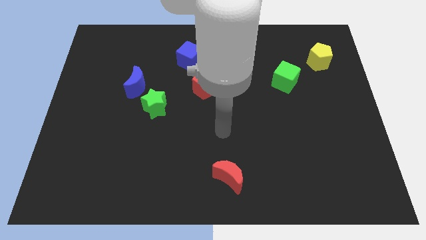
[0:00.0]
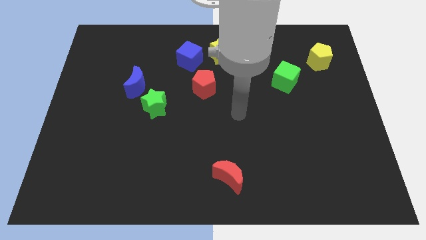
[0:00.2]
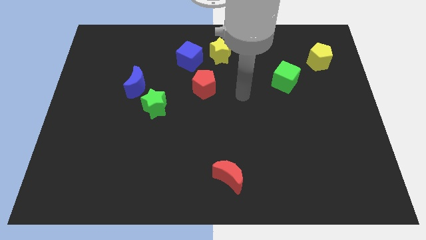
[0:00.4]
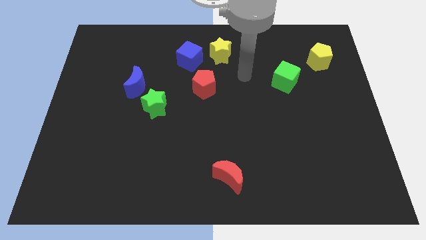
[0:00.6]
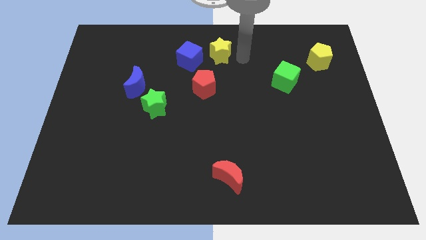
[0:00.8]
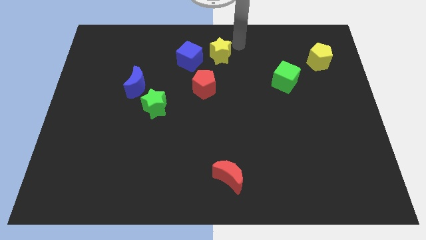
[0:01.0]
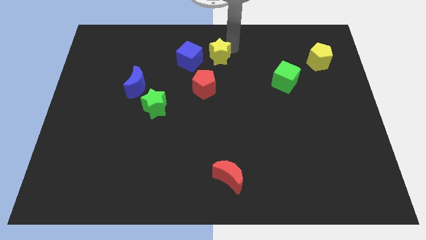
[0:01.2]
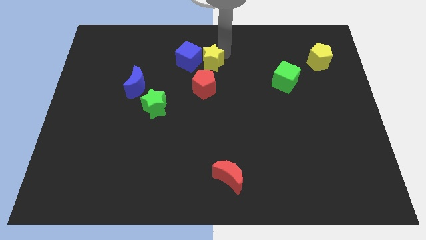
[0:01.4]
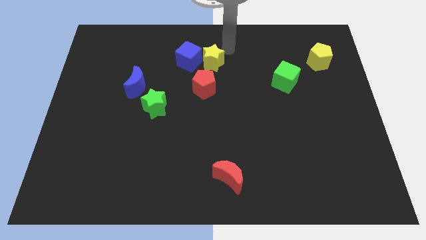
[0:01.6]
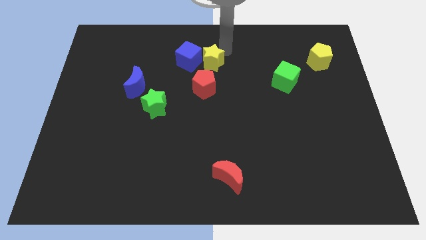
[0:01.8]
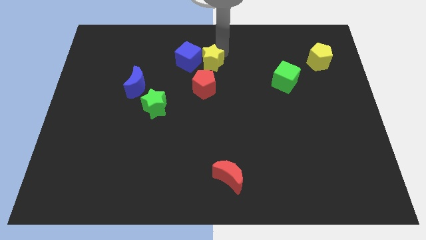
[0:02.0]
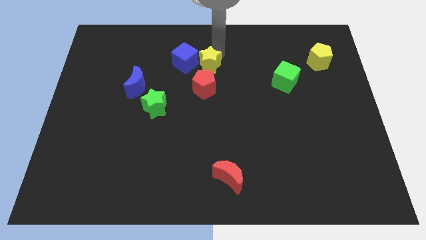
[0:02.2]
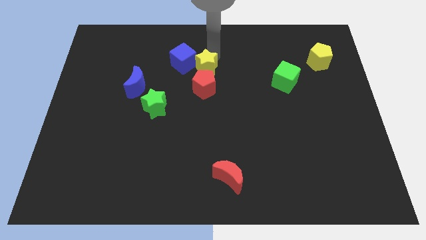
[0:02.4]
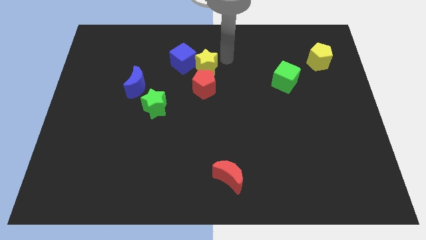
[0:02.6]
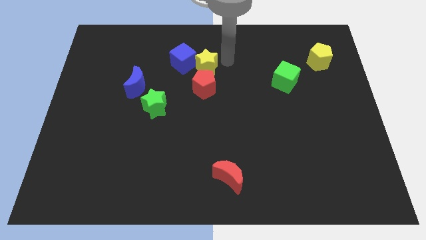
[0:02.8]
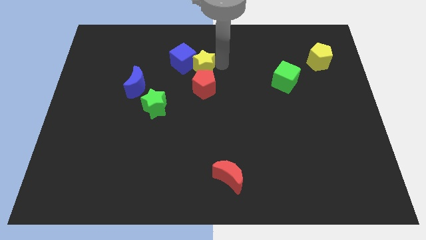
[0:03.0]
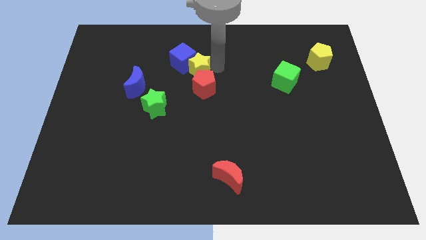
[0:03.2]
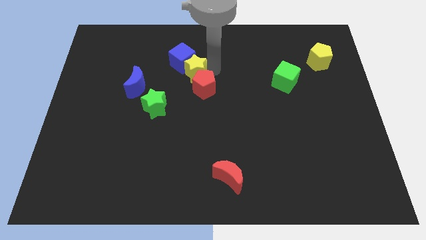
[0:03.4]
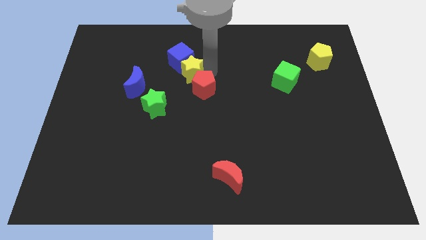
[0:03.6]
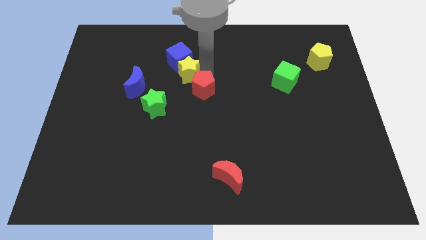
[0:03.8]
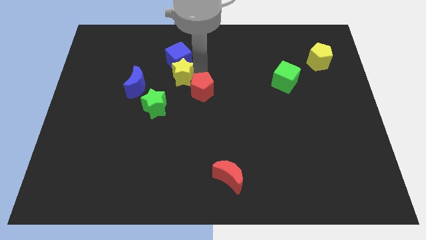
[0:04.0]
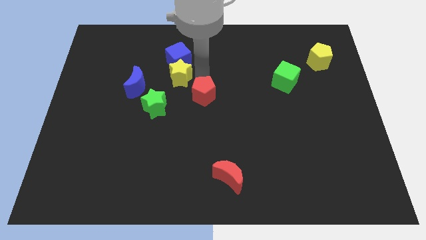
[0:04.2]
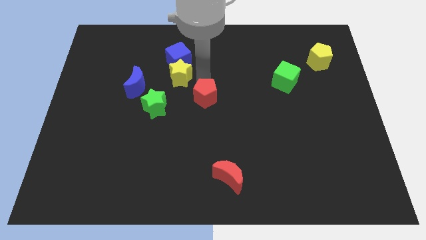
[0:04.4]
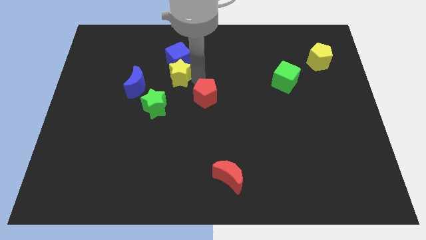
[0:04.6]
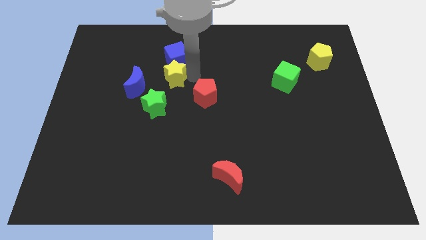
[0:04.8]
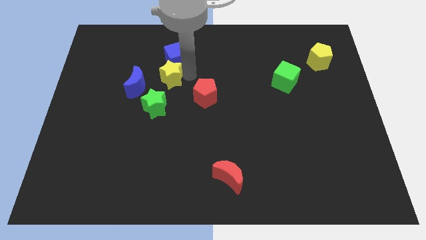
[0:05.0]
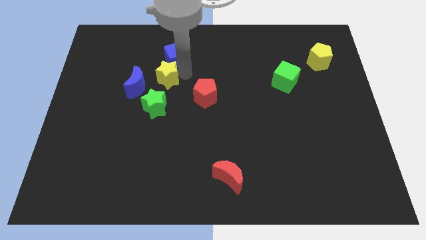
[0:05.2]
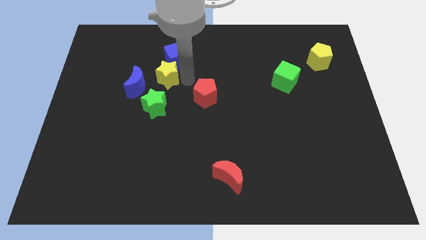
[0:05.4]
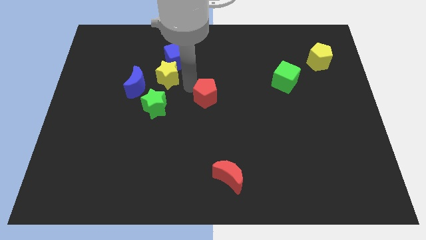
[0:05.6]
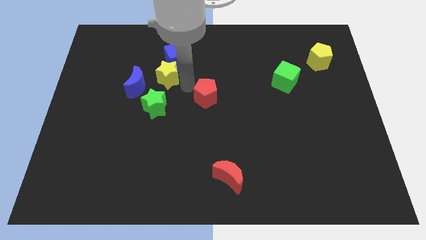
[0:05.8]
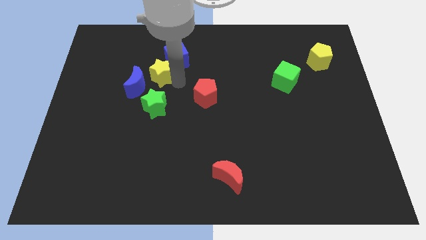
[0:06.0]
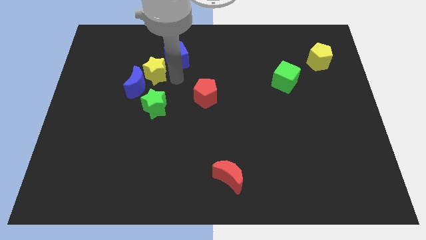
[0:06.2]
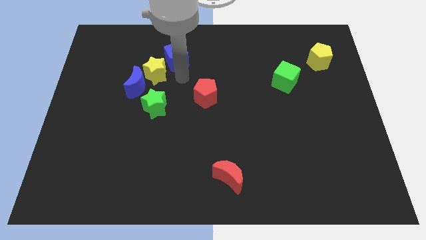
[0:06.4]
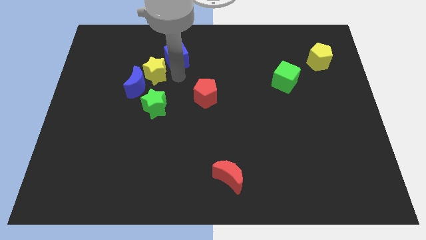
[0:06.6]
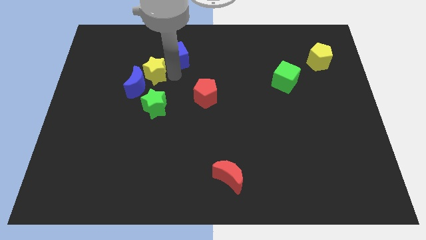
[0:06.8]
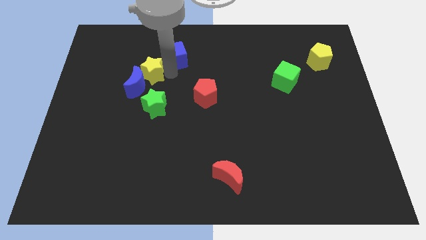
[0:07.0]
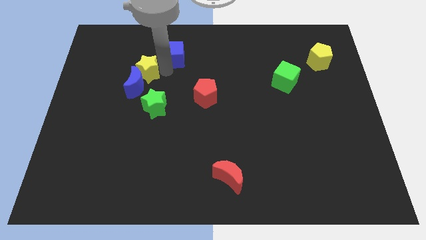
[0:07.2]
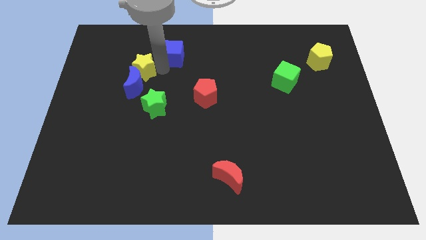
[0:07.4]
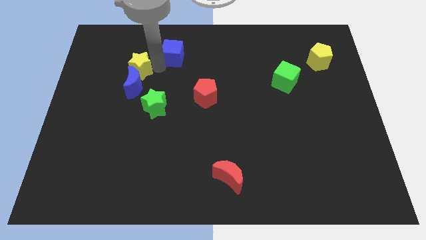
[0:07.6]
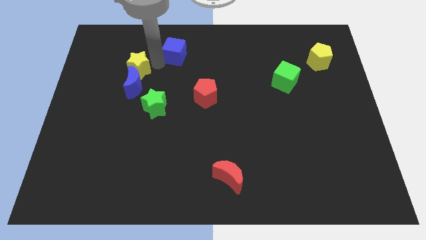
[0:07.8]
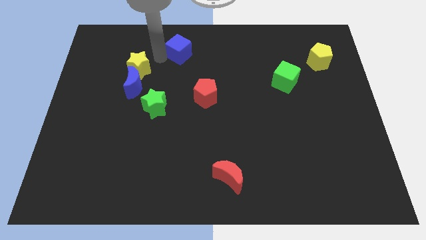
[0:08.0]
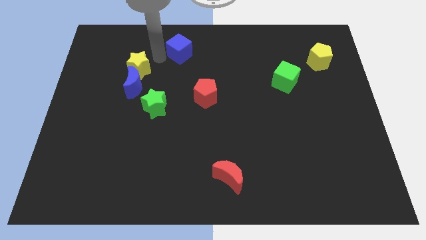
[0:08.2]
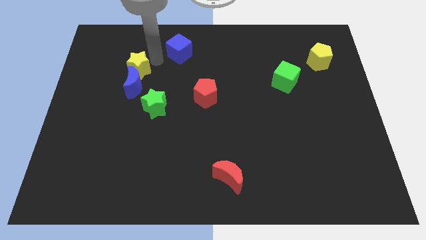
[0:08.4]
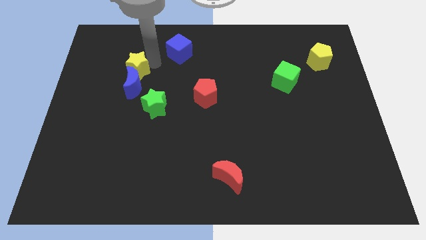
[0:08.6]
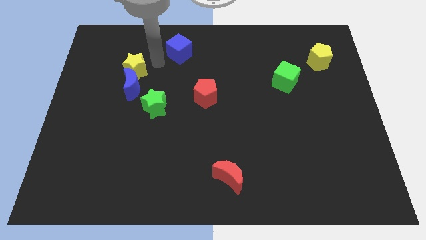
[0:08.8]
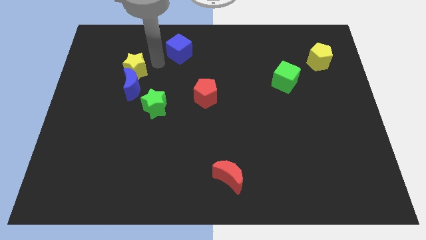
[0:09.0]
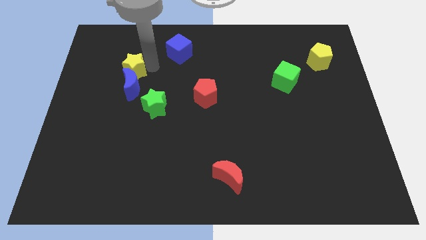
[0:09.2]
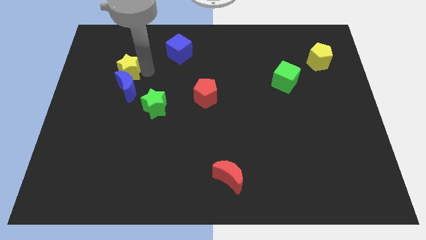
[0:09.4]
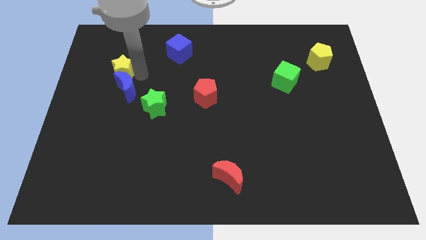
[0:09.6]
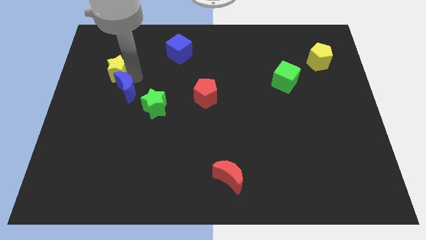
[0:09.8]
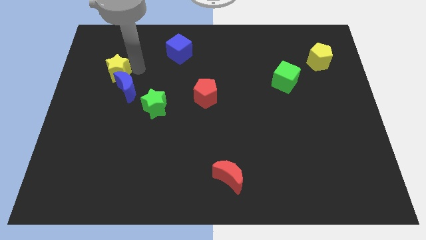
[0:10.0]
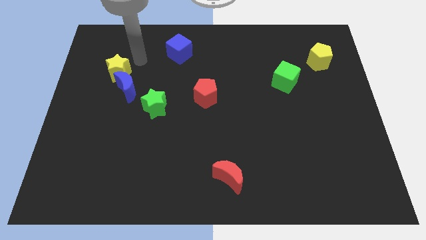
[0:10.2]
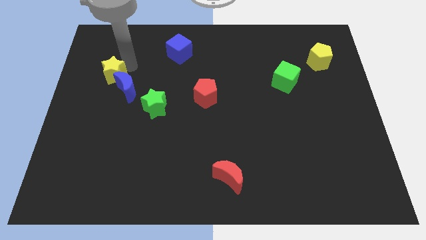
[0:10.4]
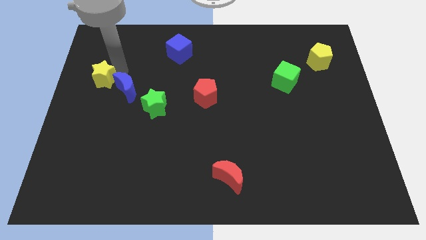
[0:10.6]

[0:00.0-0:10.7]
put the yellow star to the left side

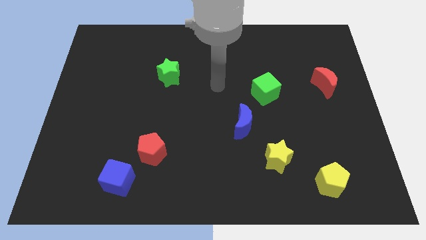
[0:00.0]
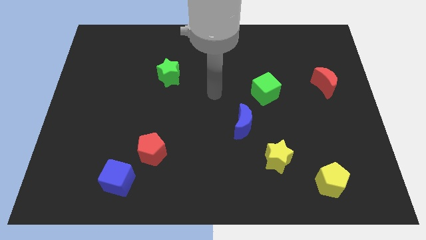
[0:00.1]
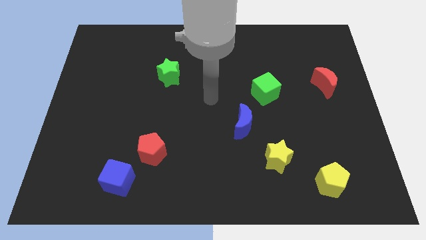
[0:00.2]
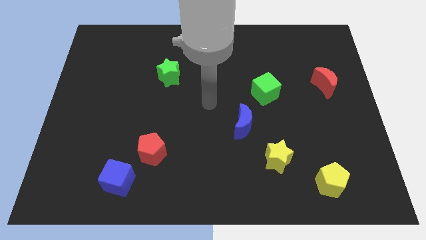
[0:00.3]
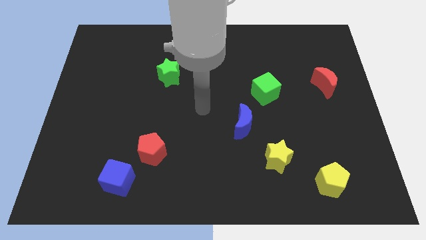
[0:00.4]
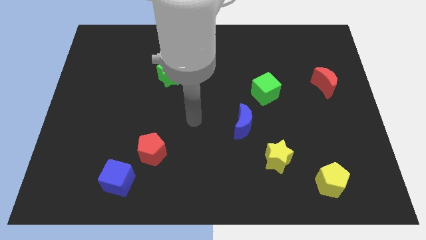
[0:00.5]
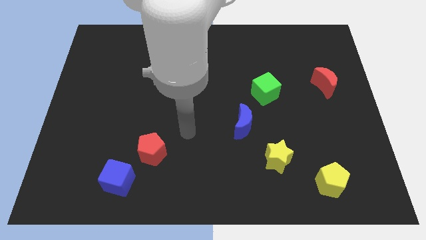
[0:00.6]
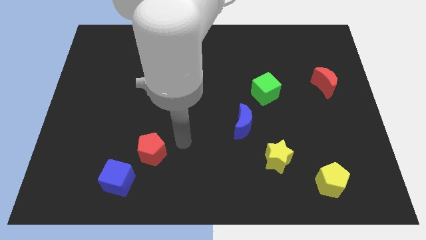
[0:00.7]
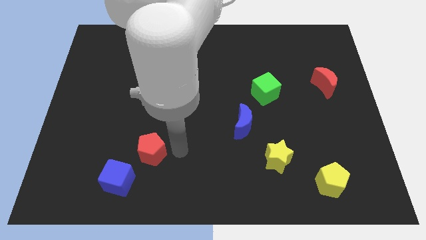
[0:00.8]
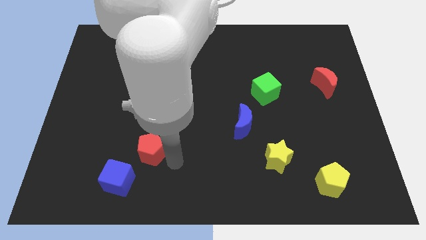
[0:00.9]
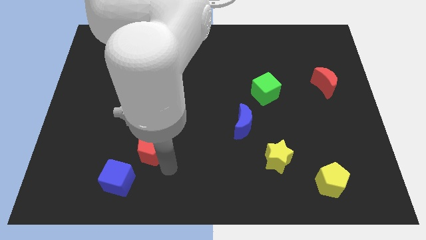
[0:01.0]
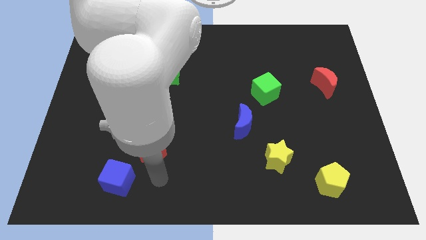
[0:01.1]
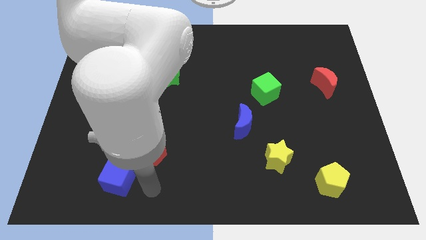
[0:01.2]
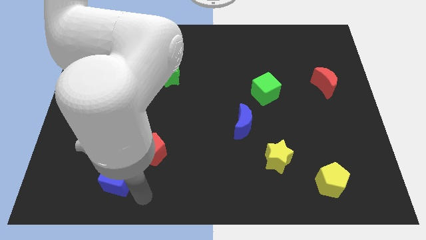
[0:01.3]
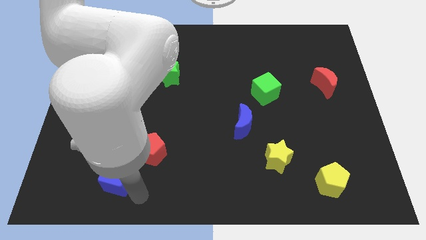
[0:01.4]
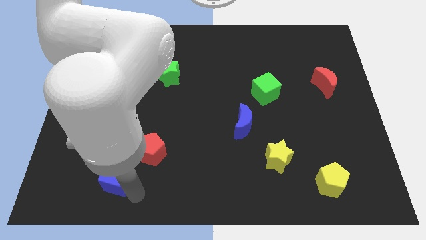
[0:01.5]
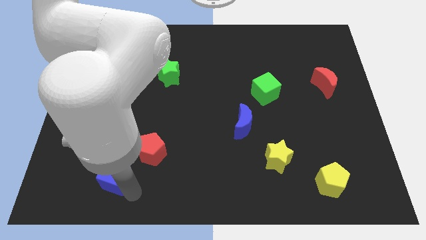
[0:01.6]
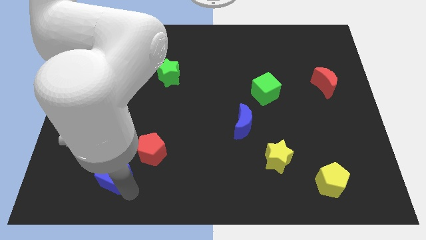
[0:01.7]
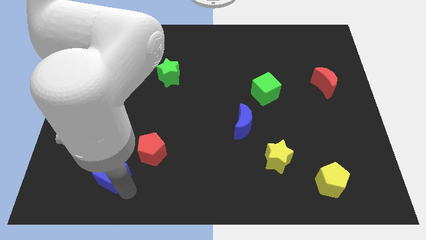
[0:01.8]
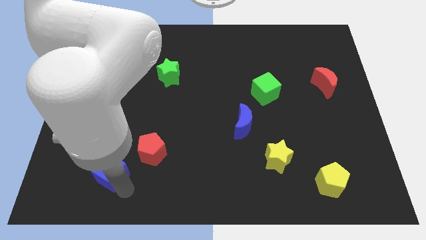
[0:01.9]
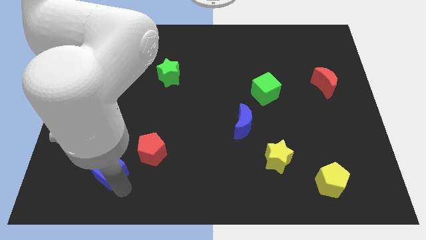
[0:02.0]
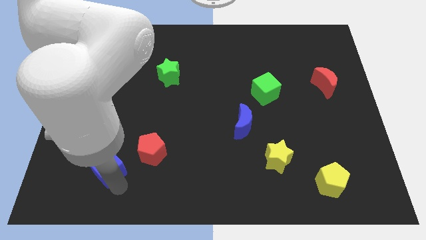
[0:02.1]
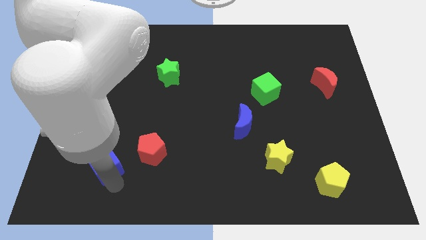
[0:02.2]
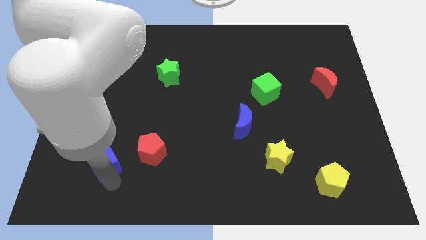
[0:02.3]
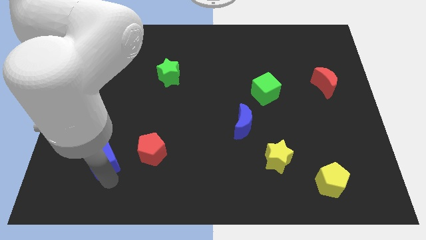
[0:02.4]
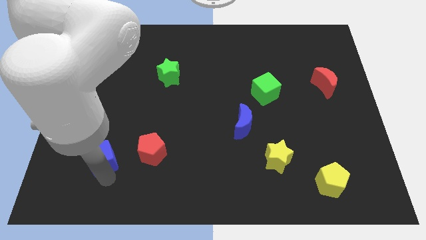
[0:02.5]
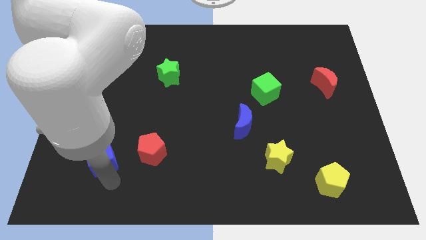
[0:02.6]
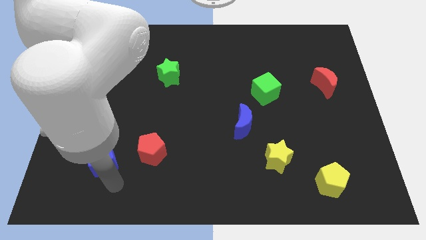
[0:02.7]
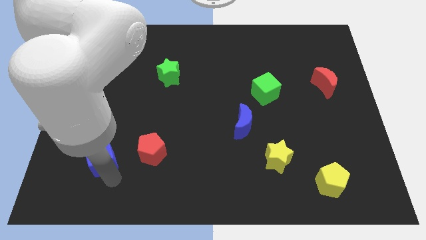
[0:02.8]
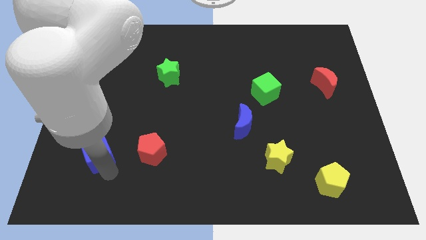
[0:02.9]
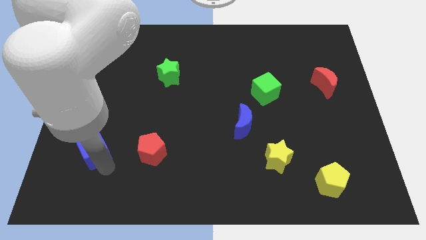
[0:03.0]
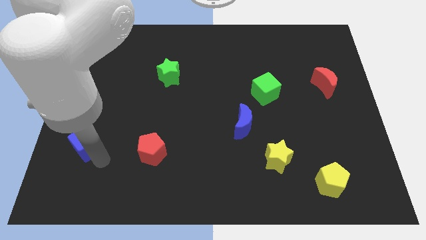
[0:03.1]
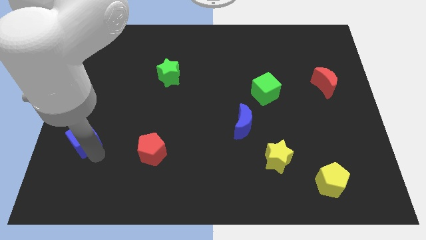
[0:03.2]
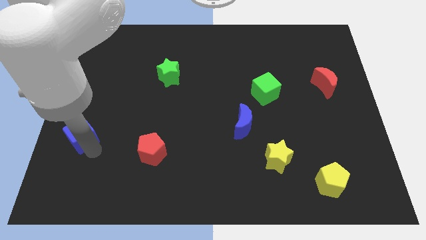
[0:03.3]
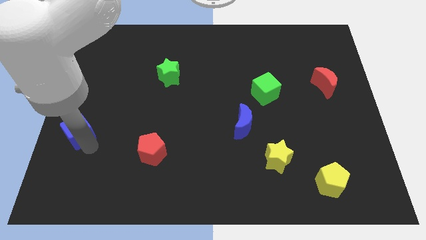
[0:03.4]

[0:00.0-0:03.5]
slide the blue cube to the center left
